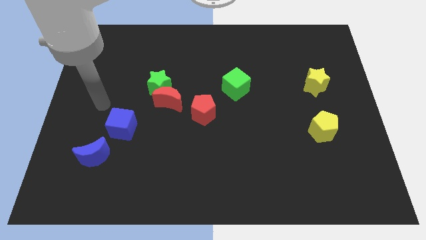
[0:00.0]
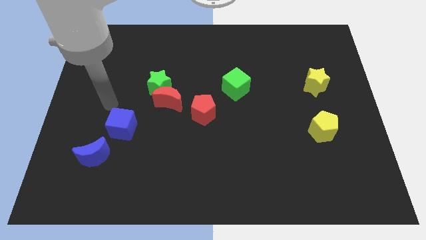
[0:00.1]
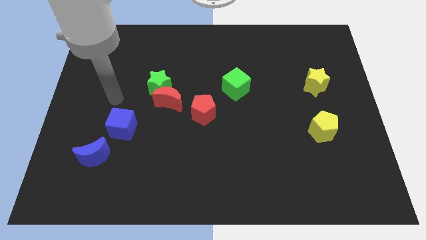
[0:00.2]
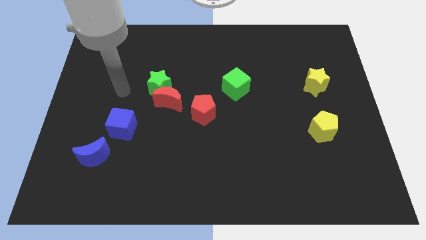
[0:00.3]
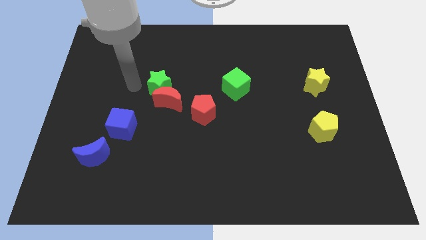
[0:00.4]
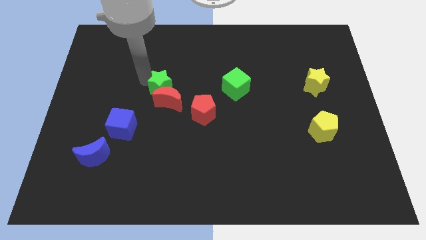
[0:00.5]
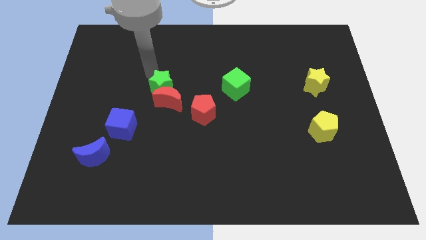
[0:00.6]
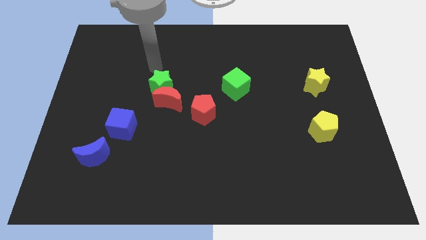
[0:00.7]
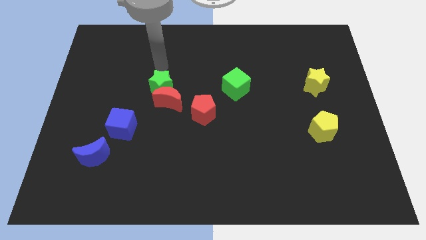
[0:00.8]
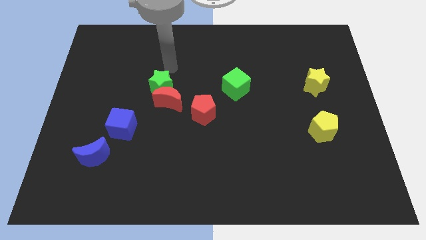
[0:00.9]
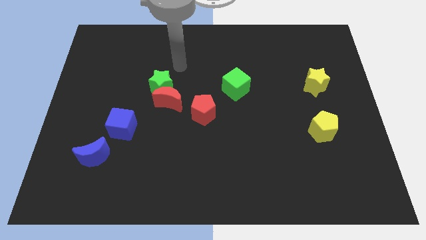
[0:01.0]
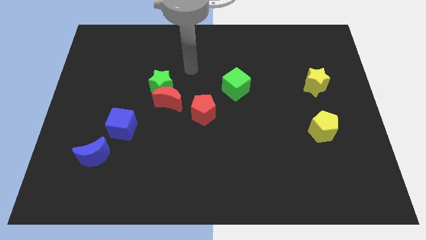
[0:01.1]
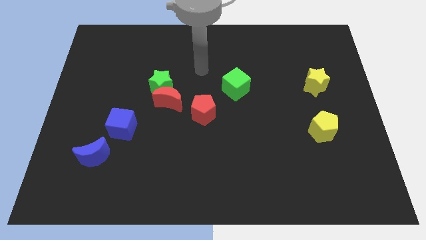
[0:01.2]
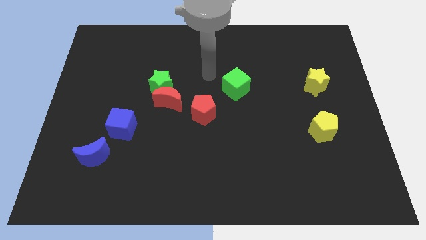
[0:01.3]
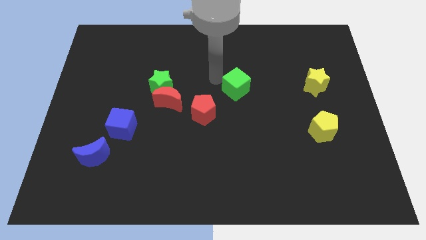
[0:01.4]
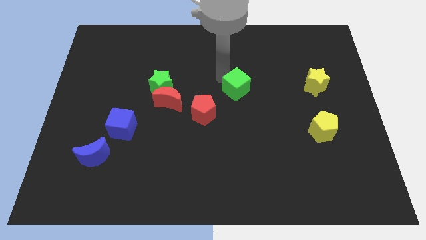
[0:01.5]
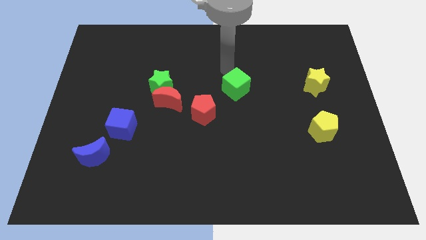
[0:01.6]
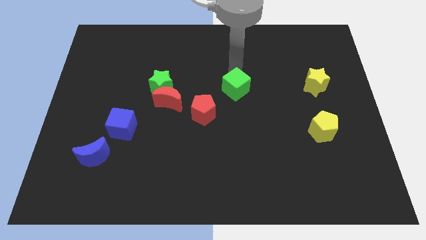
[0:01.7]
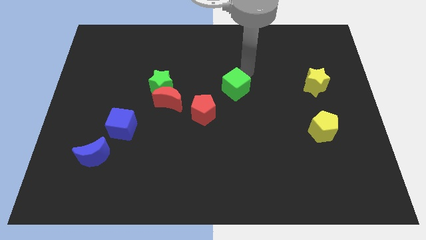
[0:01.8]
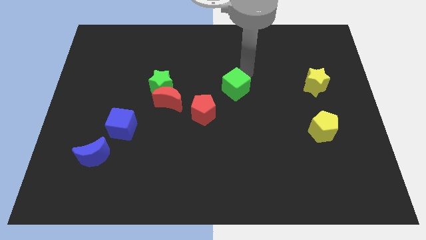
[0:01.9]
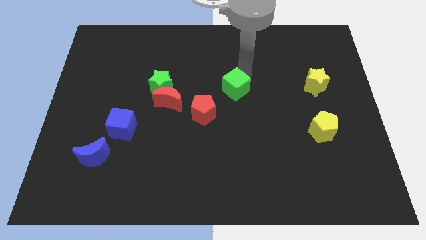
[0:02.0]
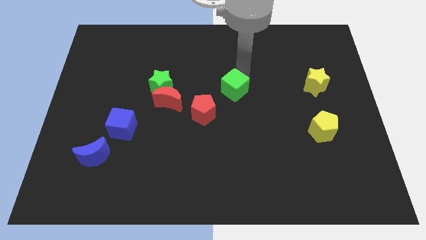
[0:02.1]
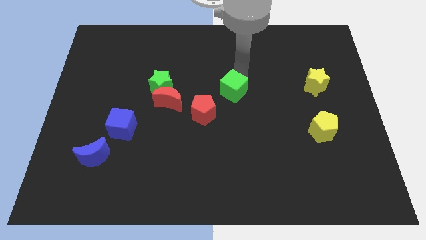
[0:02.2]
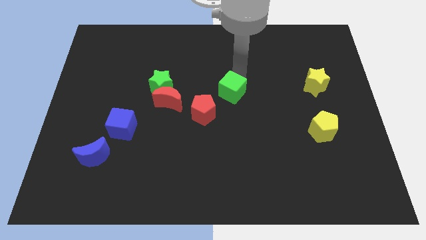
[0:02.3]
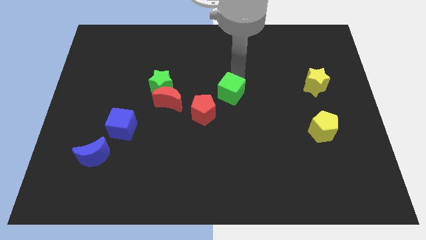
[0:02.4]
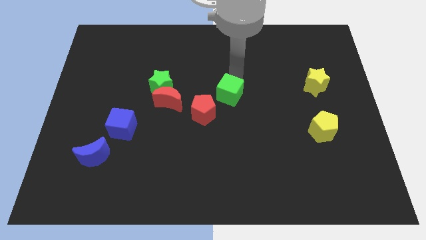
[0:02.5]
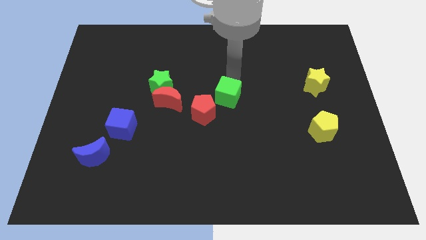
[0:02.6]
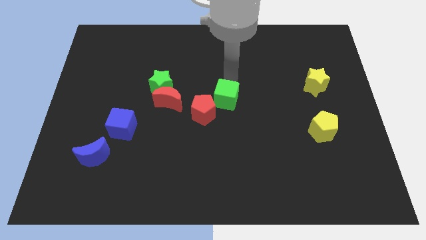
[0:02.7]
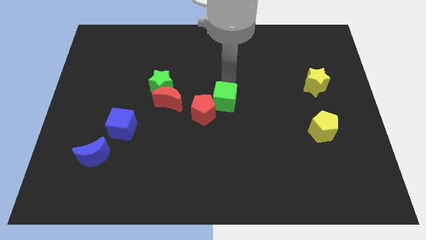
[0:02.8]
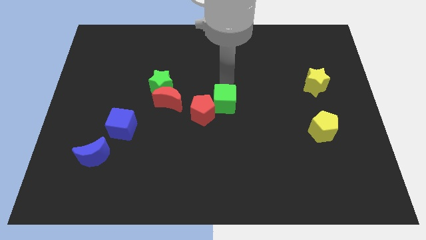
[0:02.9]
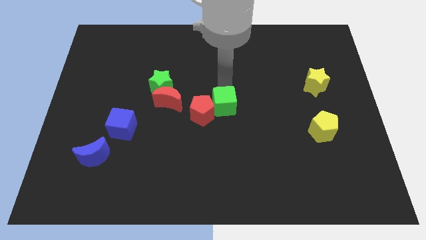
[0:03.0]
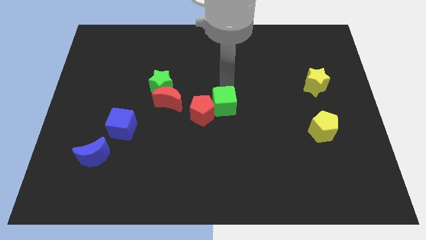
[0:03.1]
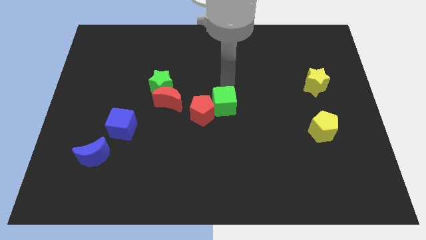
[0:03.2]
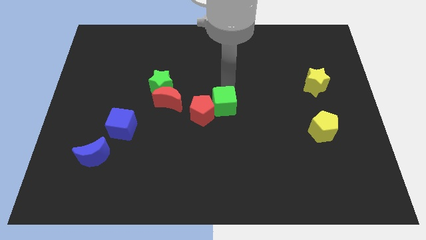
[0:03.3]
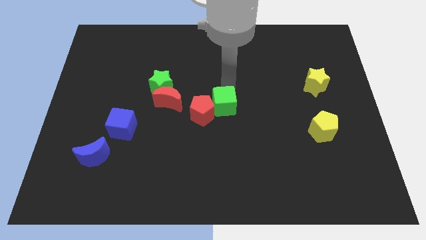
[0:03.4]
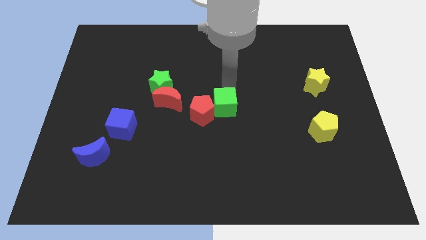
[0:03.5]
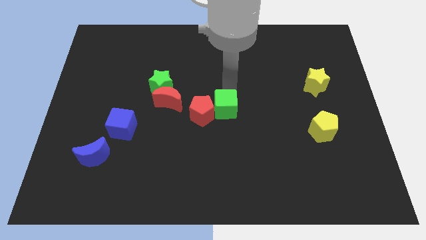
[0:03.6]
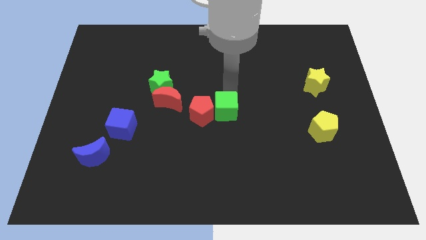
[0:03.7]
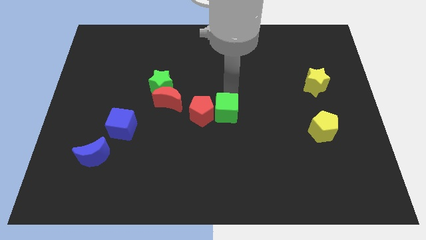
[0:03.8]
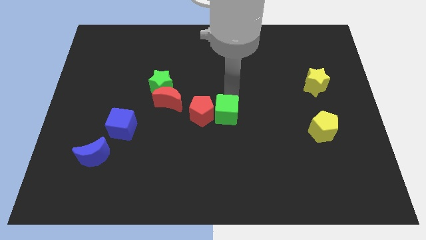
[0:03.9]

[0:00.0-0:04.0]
push the green cube down and left diagonally slightly

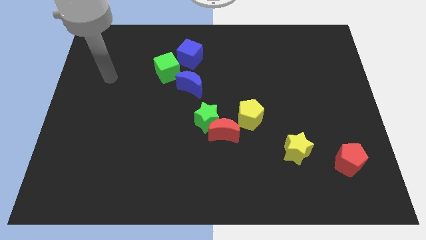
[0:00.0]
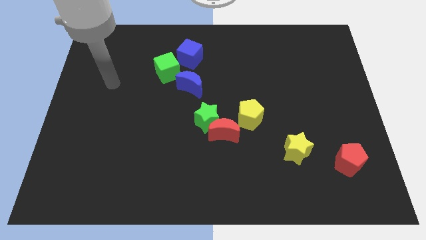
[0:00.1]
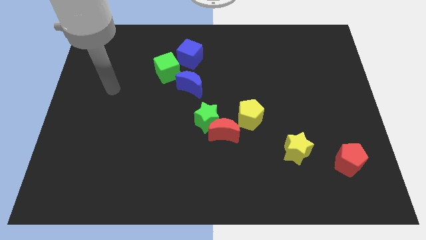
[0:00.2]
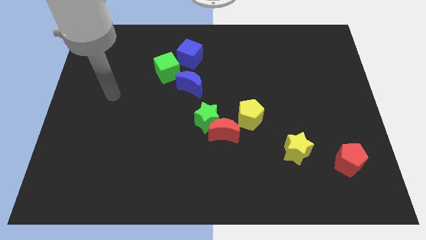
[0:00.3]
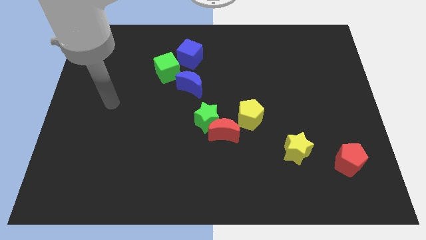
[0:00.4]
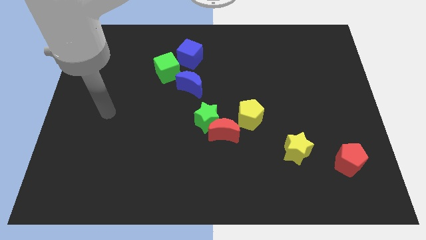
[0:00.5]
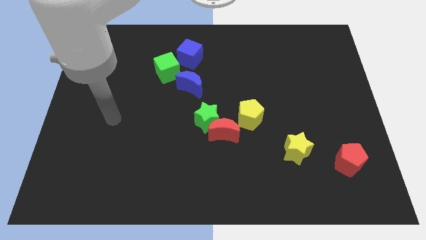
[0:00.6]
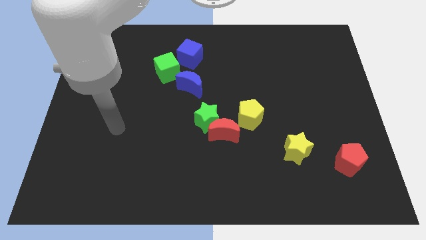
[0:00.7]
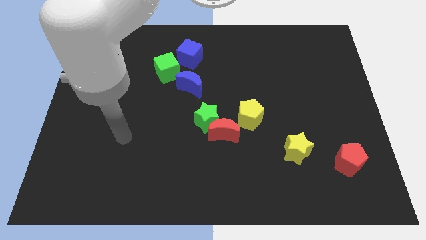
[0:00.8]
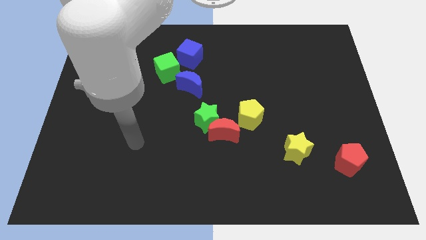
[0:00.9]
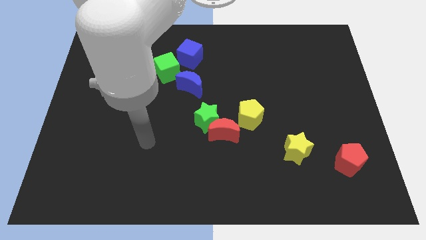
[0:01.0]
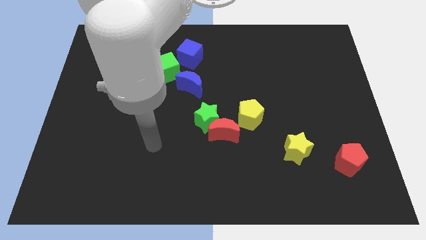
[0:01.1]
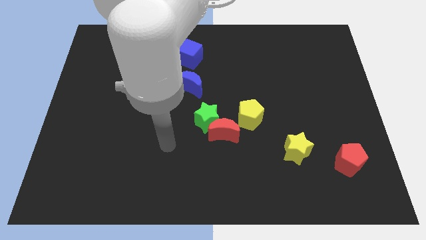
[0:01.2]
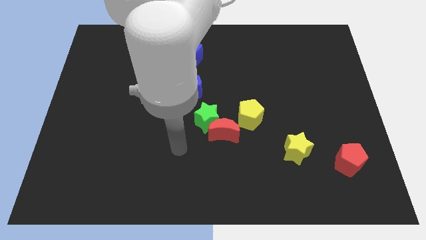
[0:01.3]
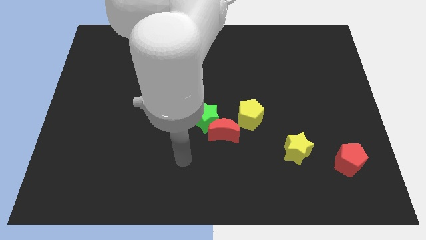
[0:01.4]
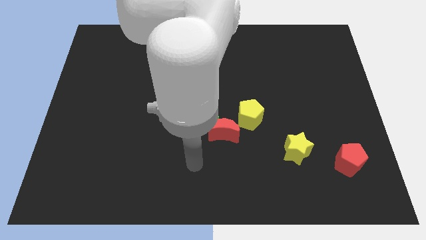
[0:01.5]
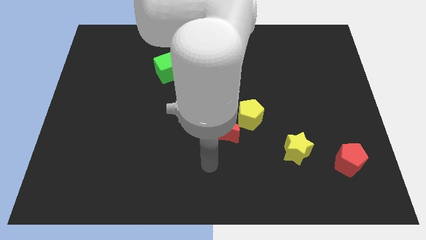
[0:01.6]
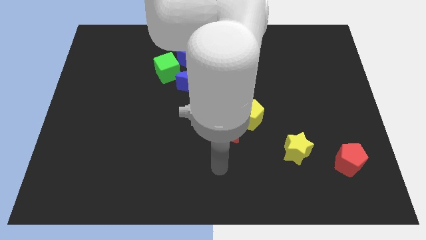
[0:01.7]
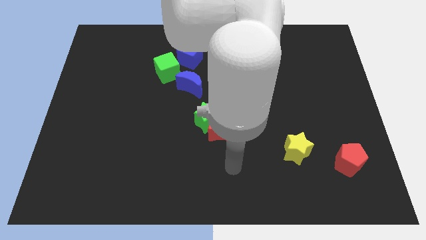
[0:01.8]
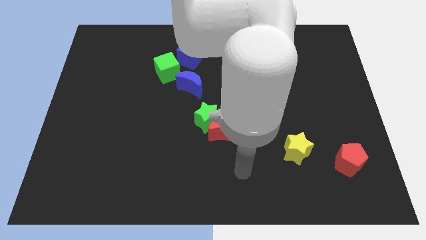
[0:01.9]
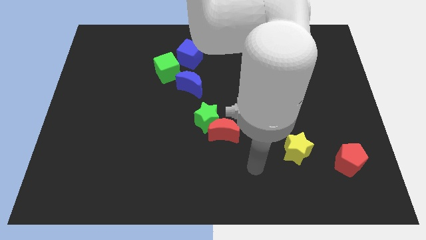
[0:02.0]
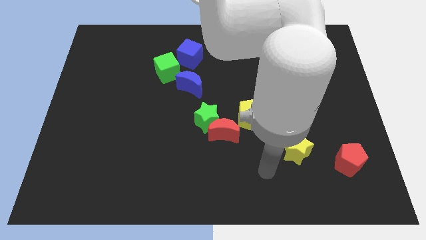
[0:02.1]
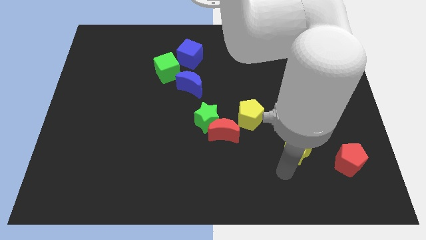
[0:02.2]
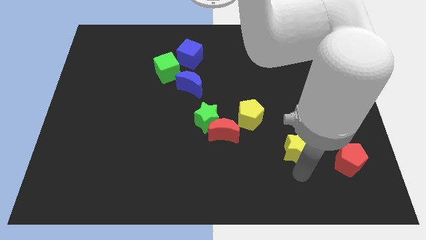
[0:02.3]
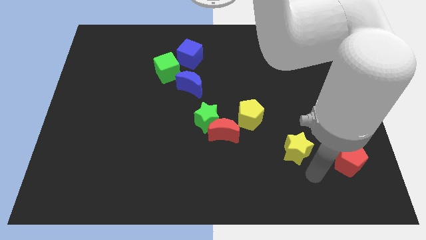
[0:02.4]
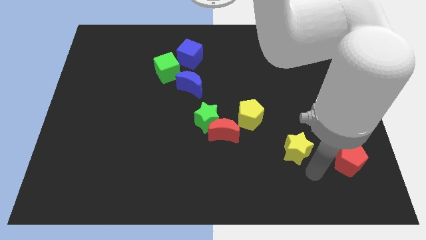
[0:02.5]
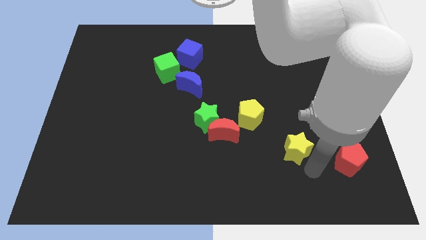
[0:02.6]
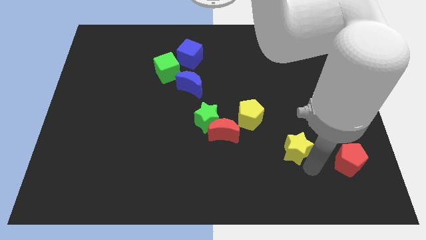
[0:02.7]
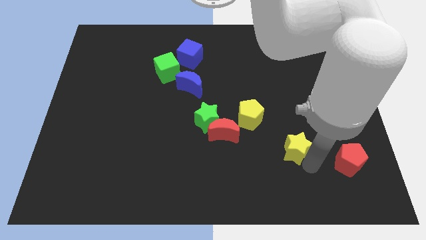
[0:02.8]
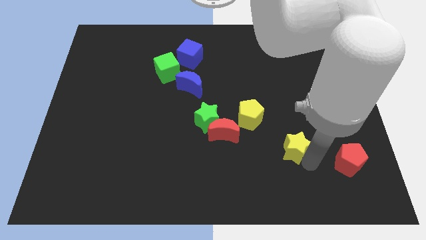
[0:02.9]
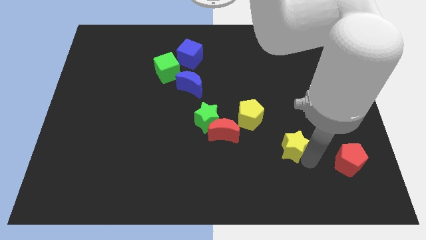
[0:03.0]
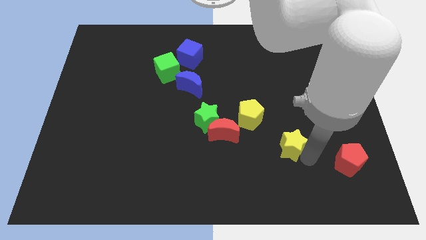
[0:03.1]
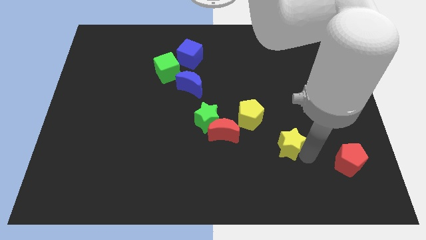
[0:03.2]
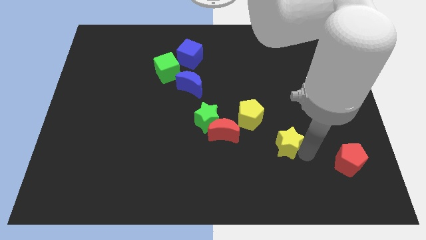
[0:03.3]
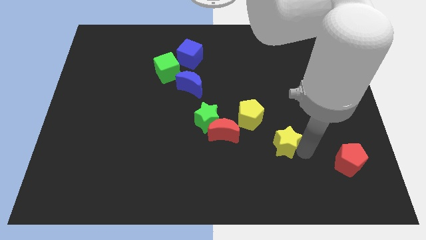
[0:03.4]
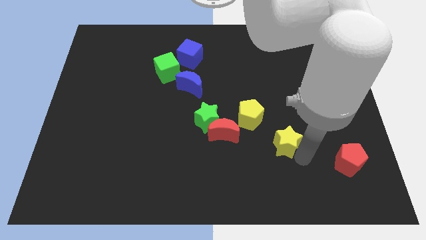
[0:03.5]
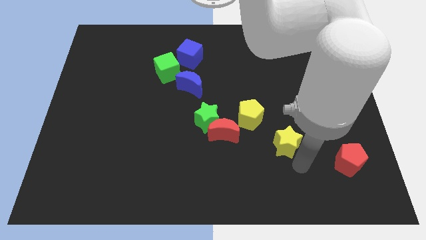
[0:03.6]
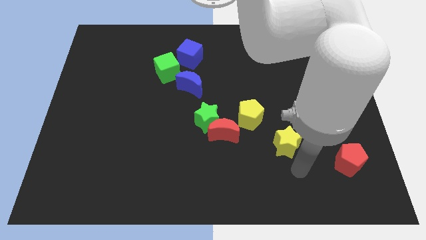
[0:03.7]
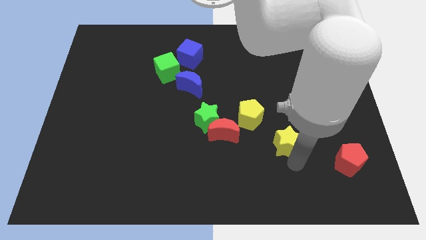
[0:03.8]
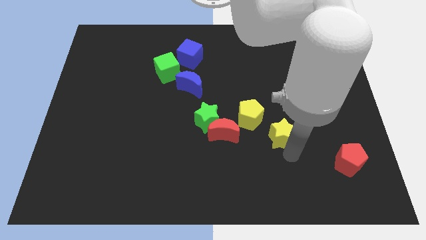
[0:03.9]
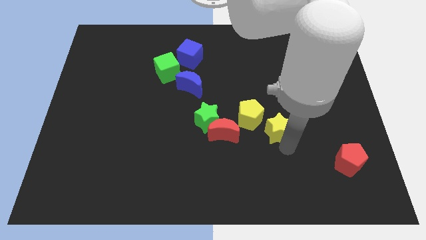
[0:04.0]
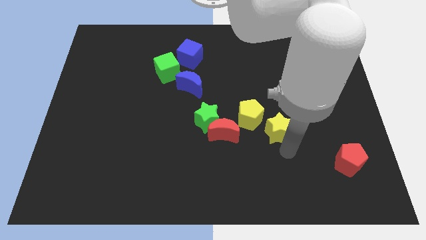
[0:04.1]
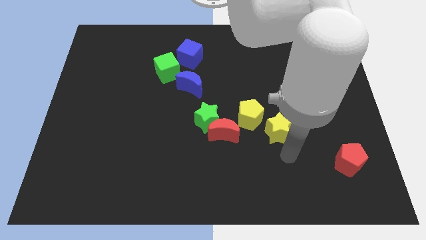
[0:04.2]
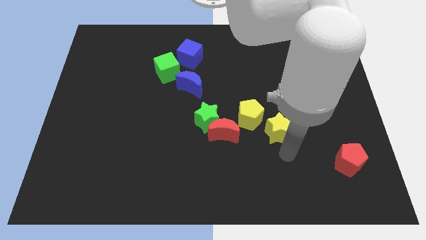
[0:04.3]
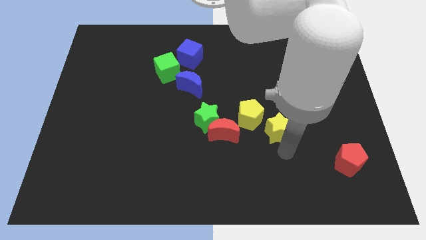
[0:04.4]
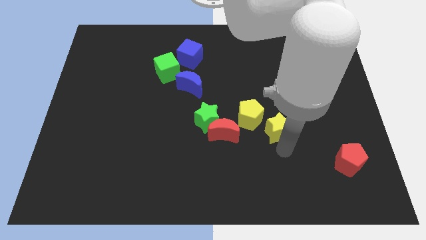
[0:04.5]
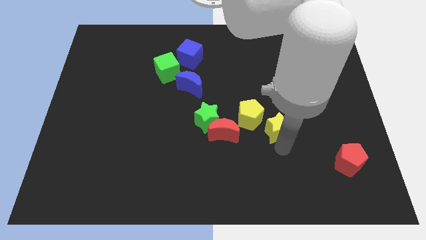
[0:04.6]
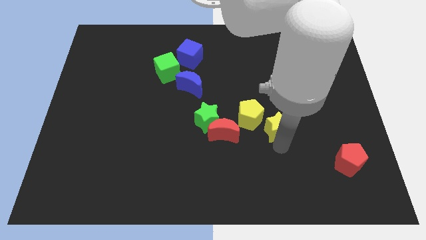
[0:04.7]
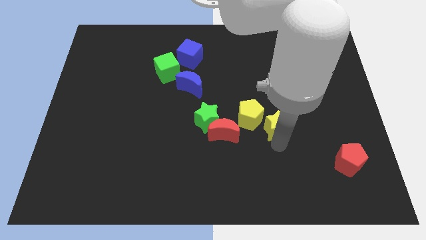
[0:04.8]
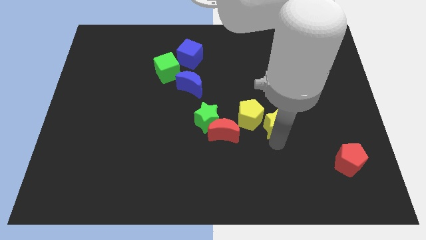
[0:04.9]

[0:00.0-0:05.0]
move the yellow star diagonally upwards and left somewhat
